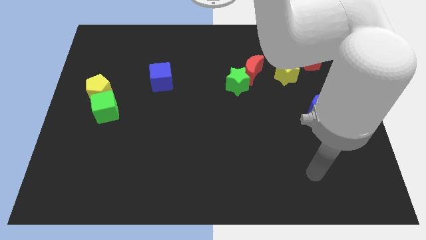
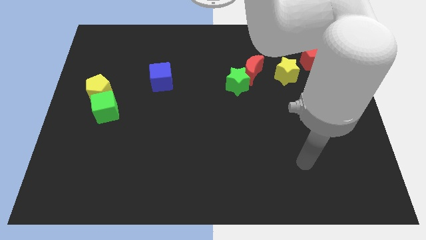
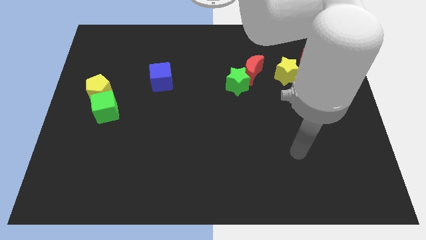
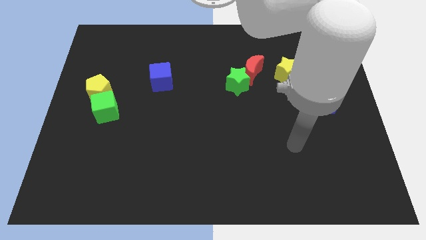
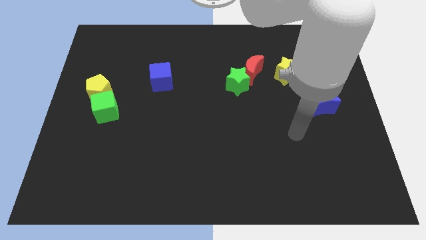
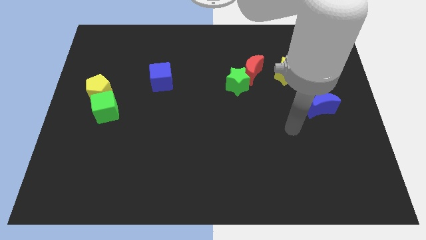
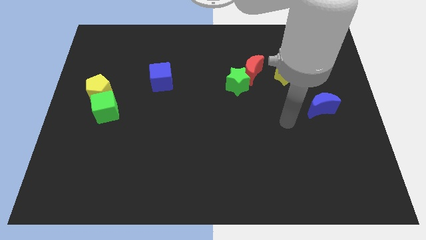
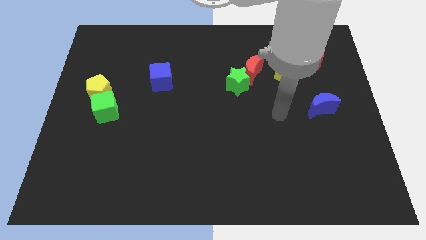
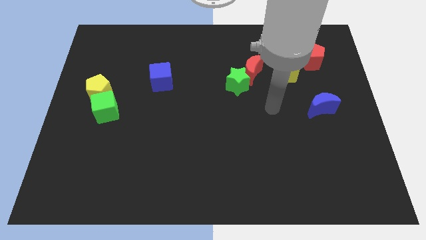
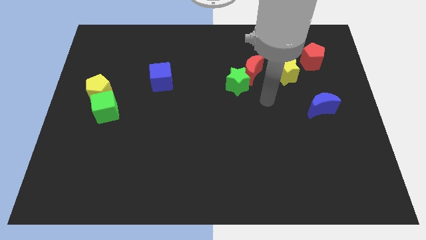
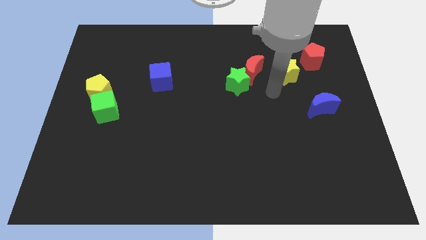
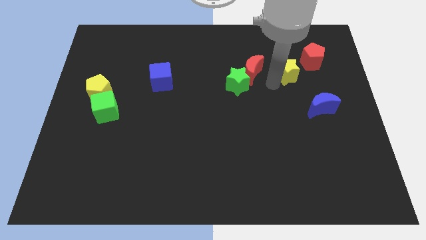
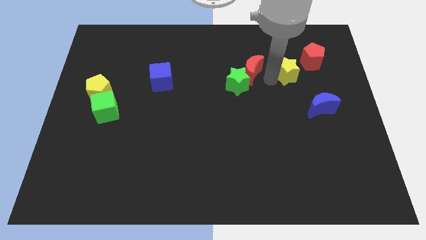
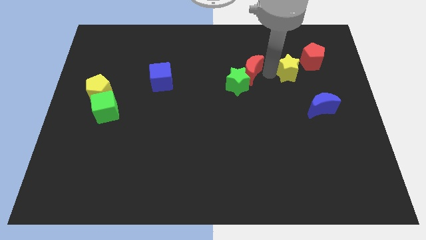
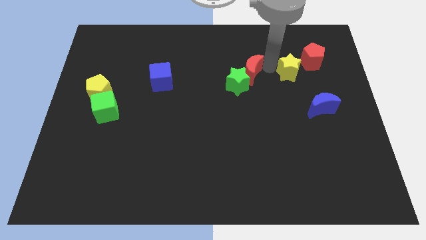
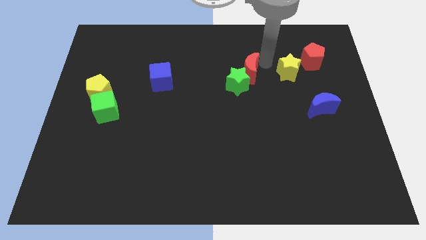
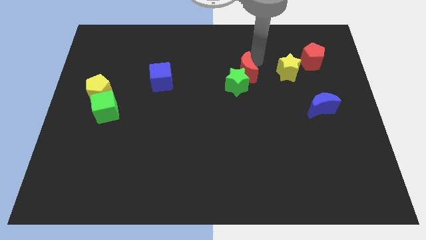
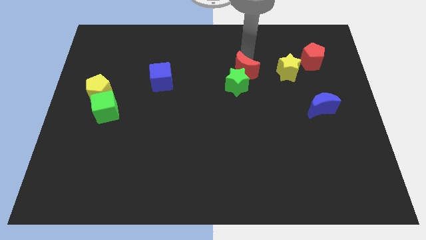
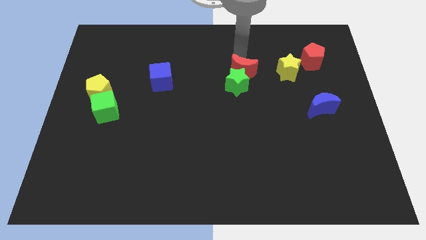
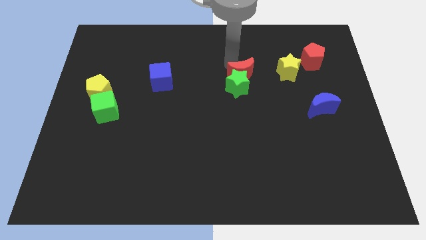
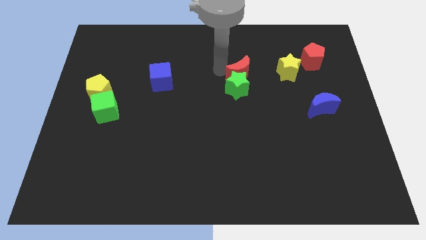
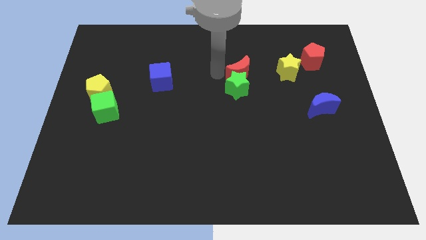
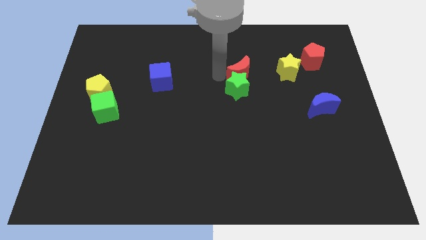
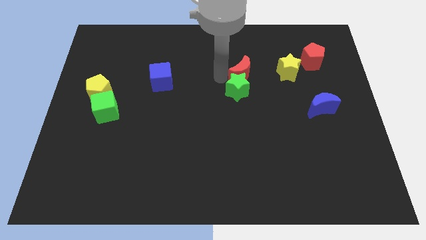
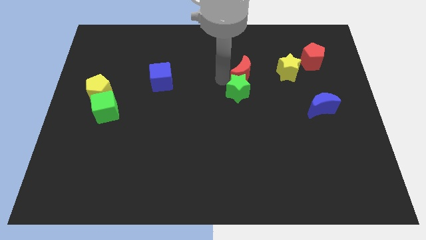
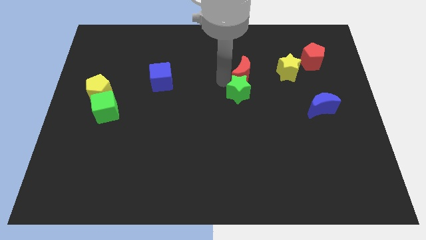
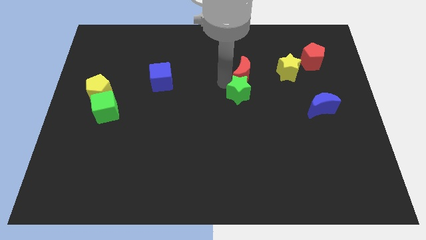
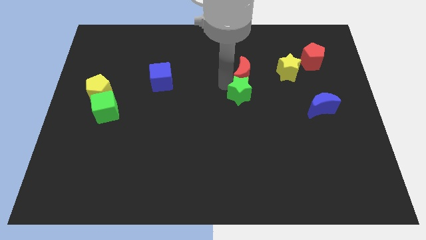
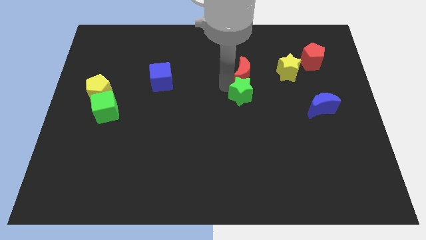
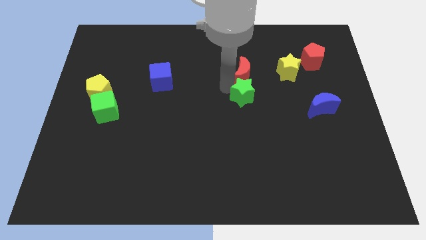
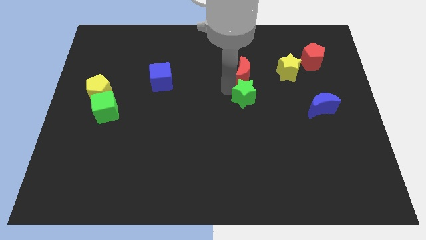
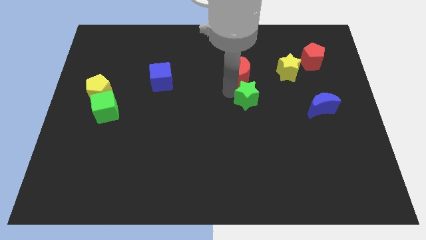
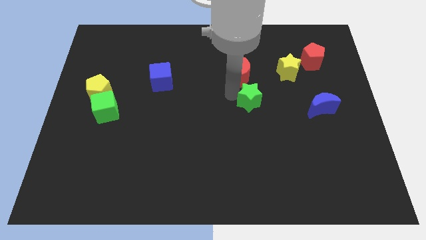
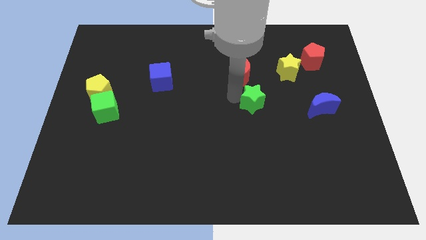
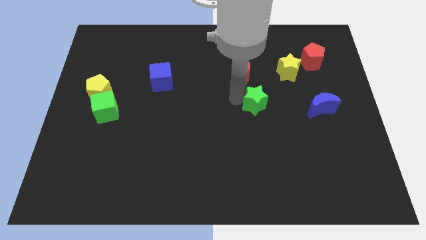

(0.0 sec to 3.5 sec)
slightly move the green star downwards and then to the right

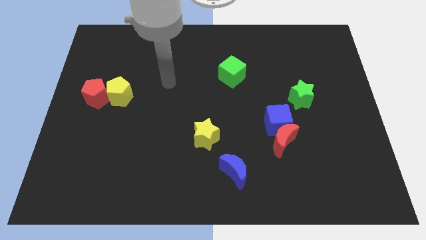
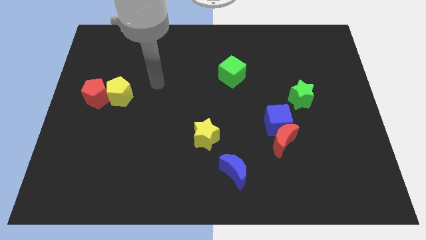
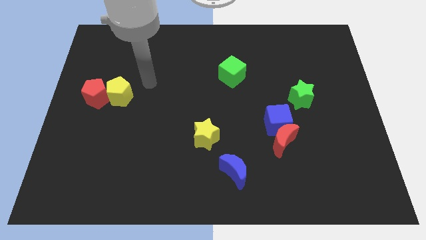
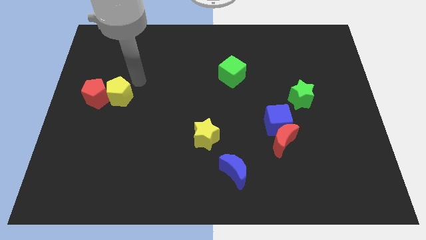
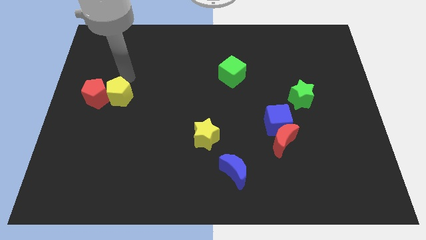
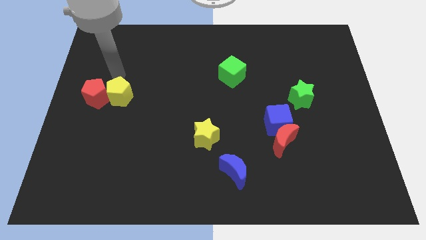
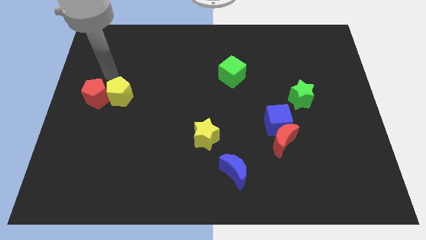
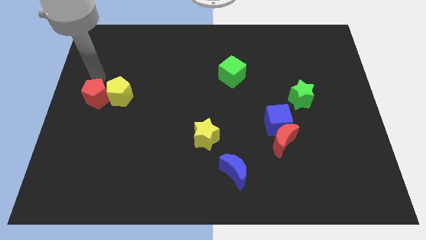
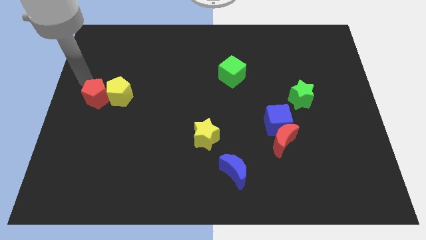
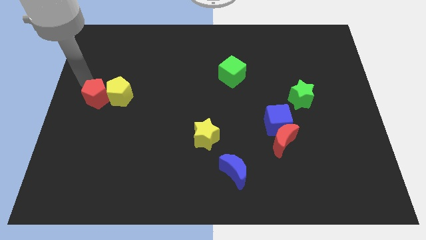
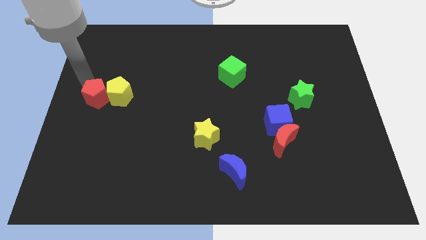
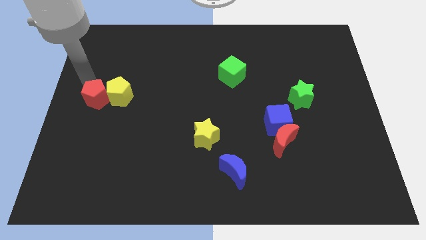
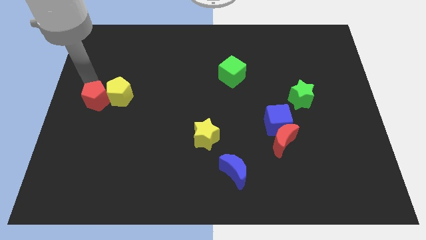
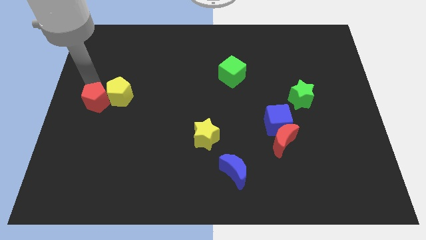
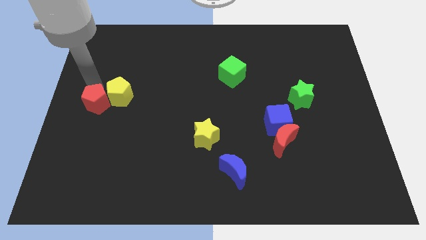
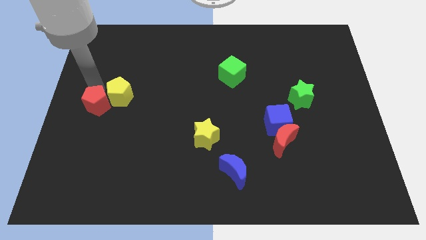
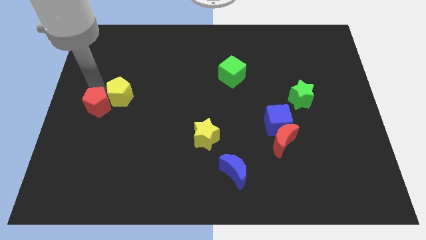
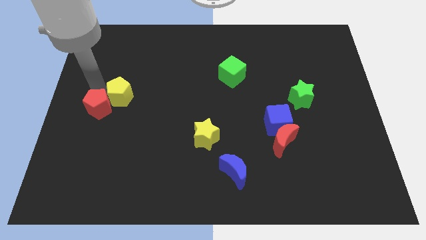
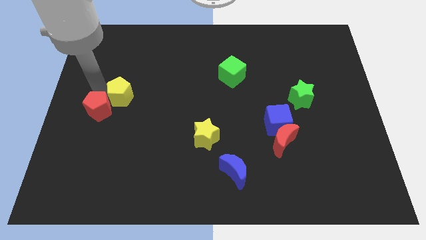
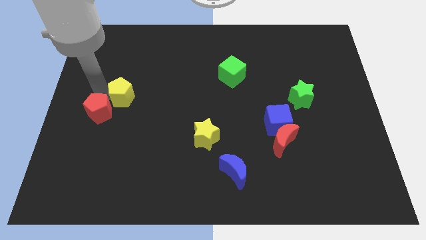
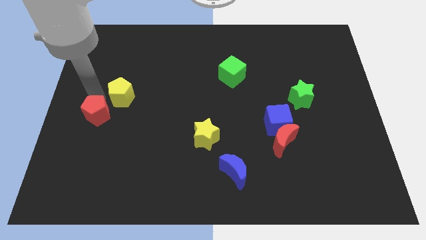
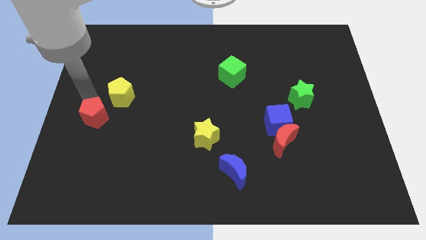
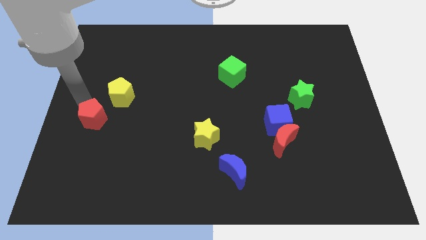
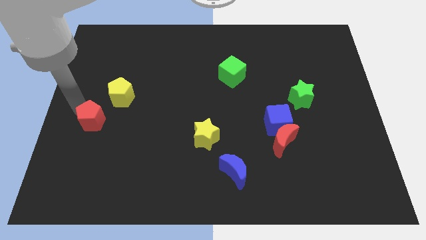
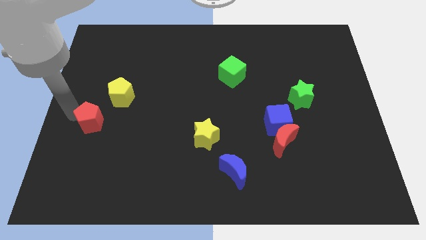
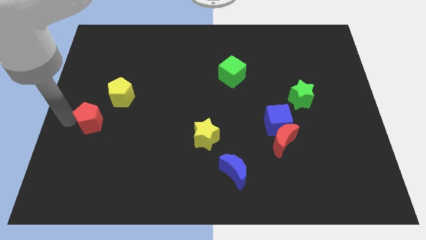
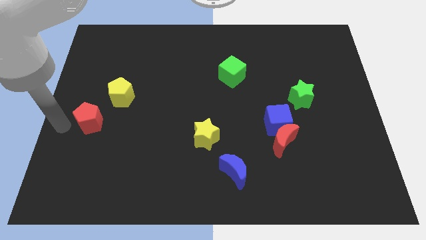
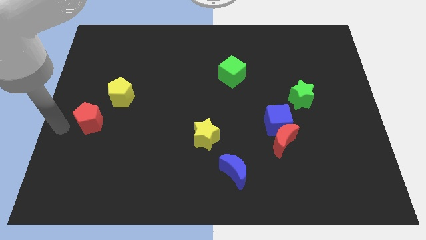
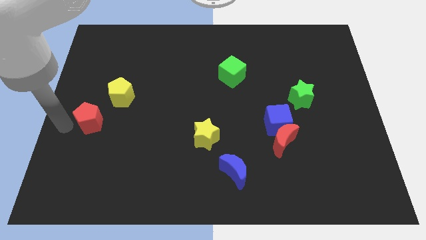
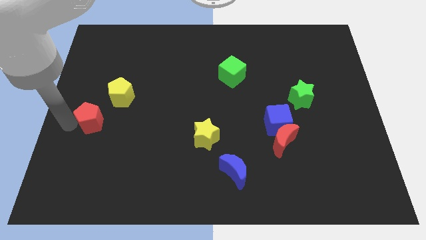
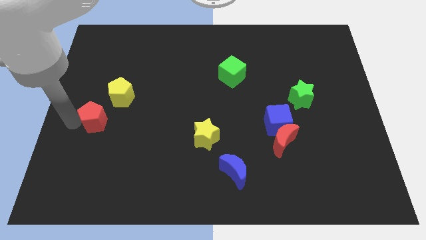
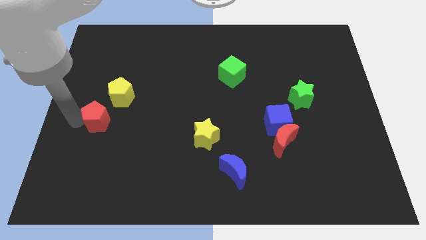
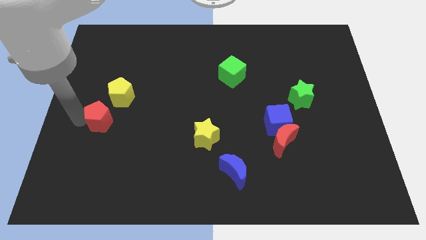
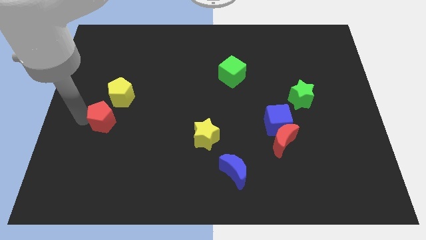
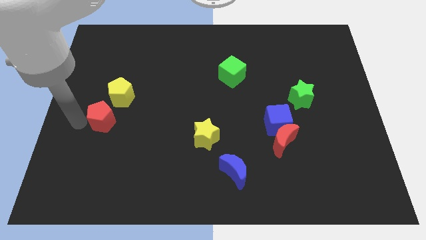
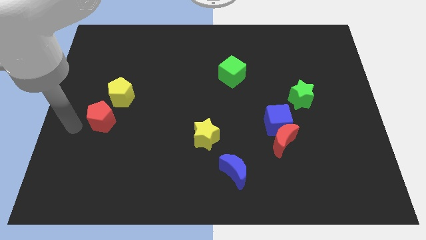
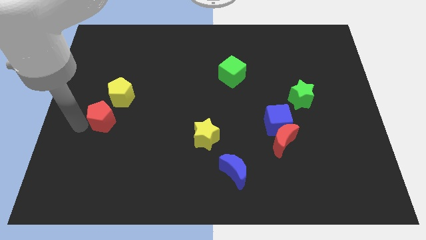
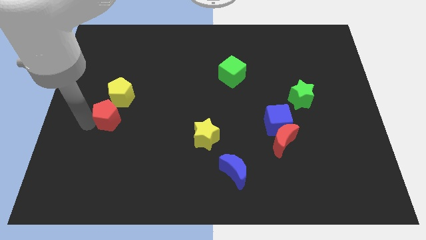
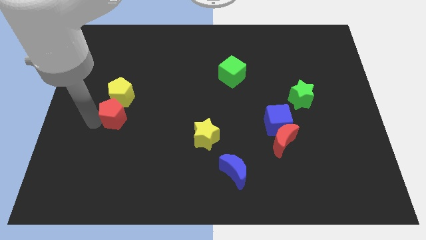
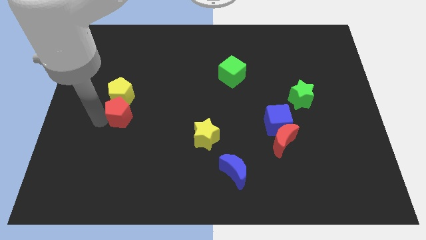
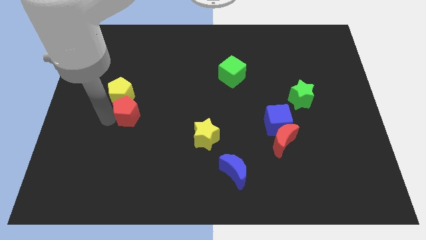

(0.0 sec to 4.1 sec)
push the red pentagon right slightly

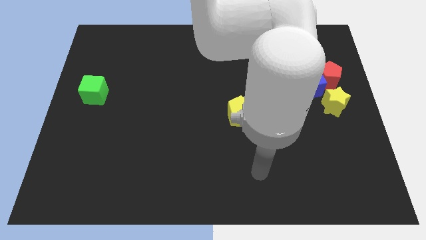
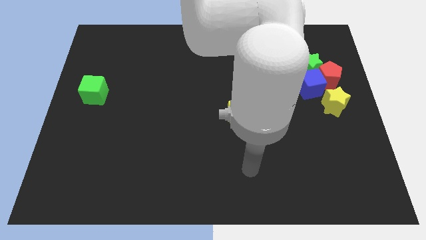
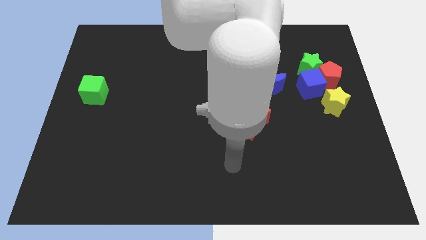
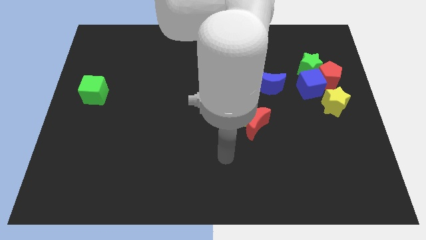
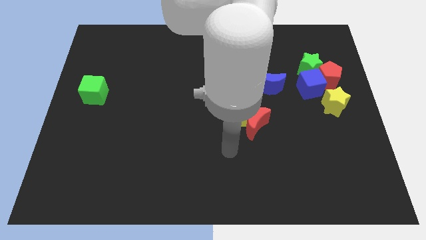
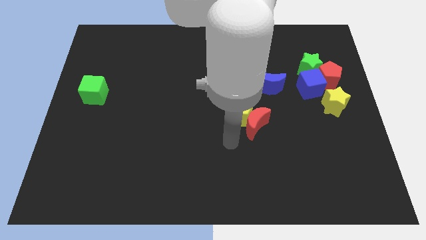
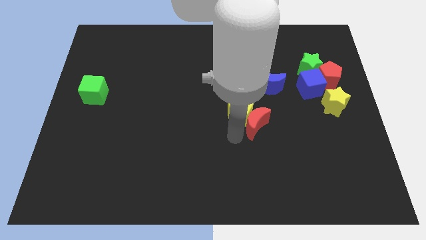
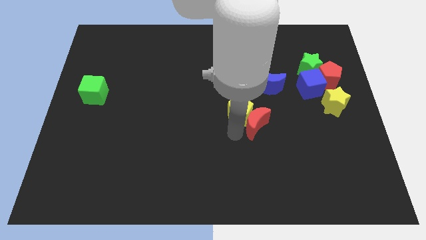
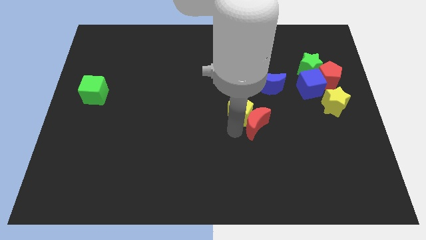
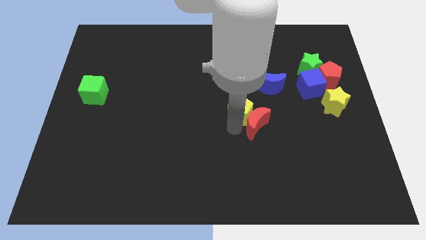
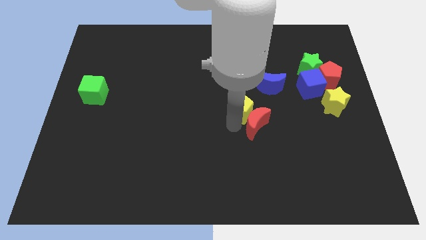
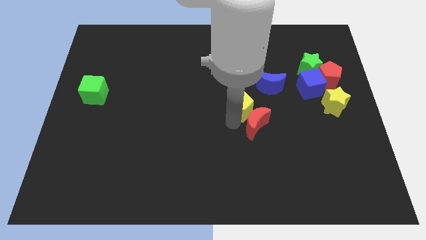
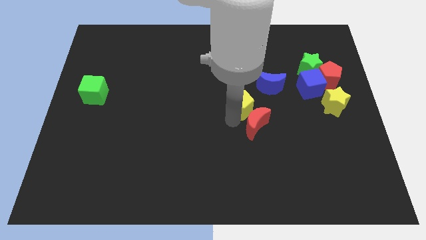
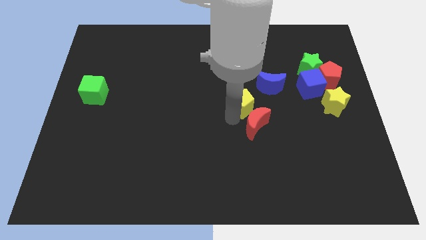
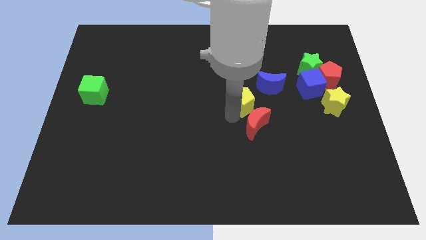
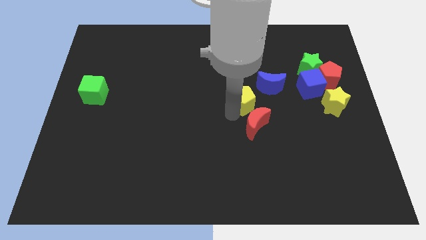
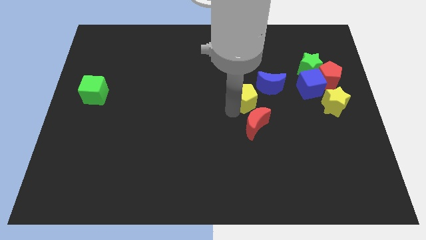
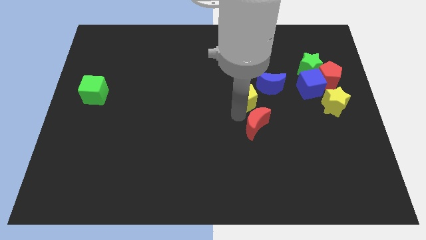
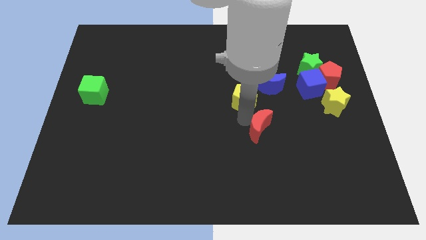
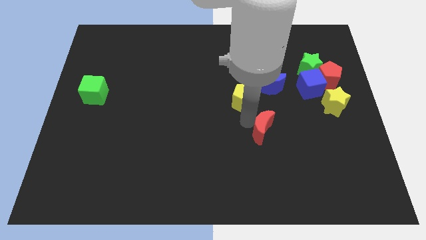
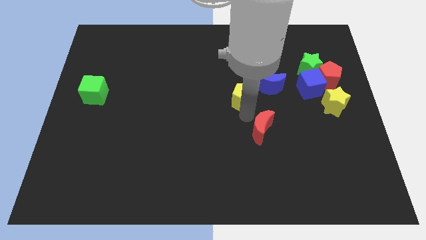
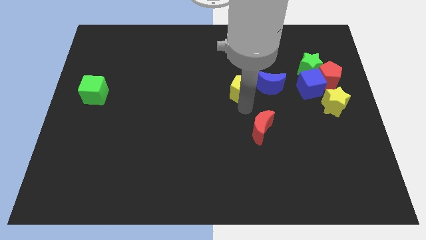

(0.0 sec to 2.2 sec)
move the yellow pentagon slightly up
